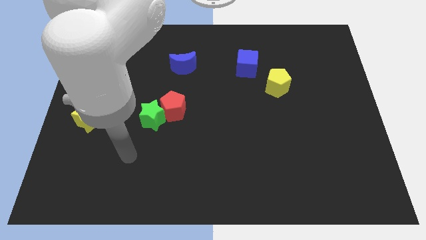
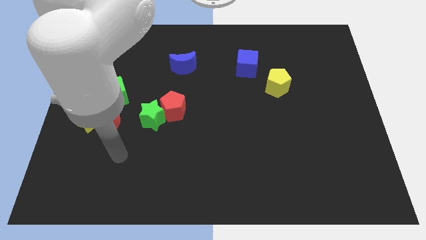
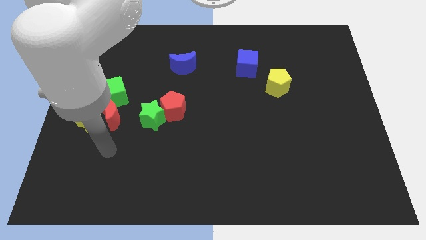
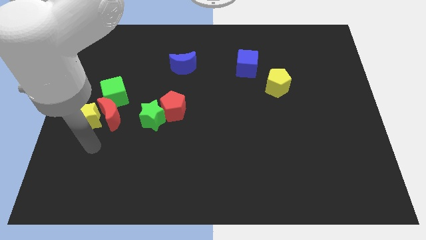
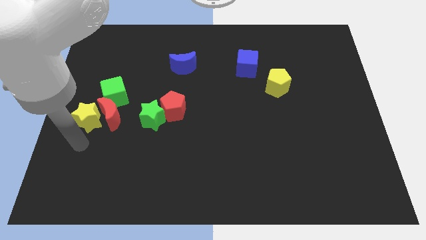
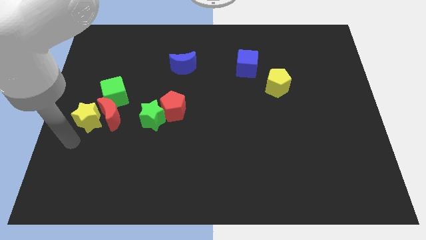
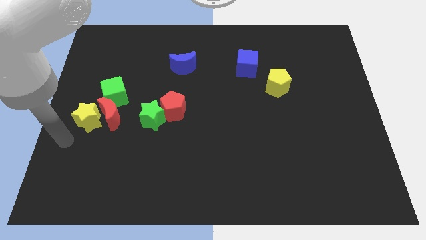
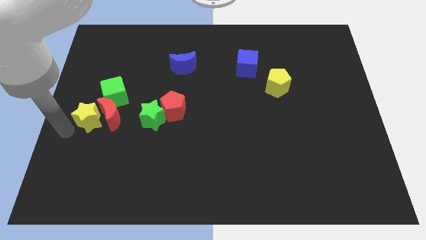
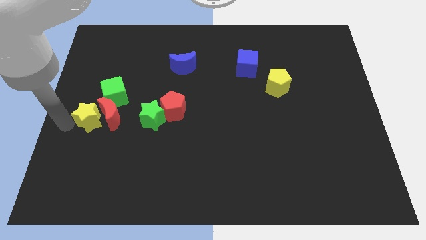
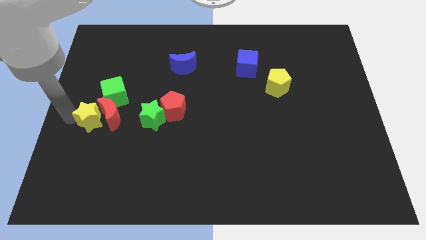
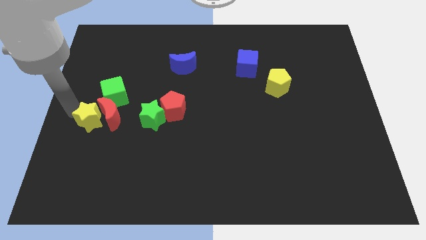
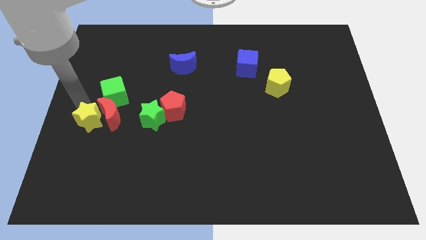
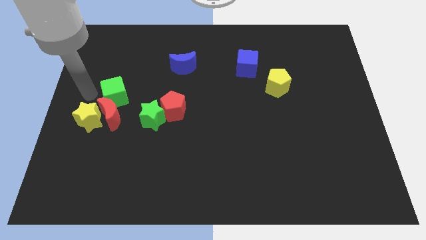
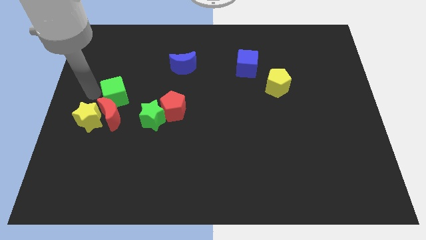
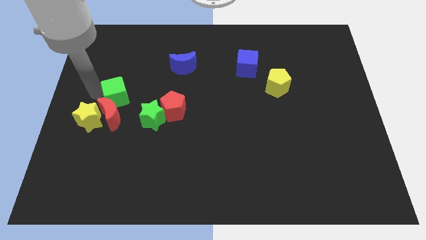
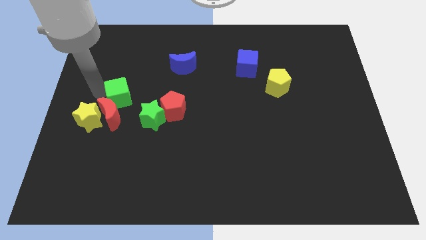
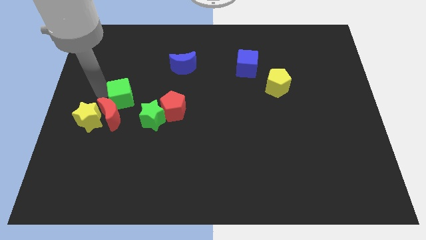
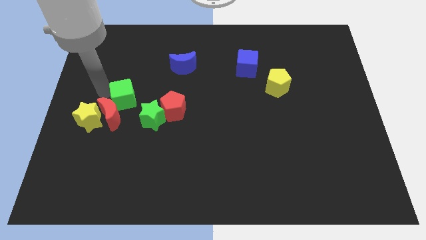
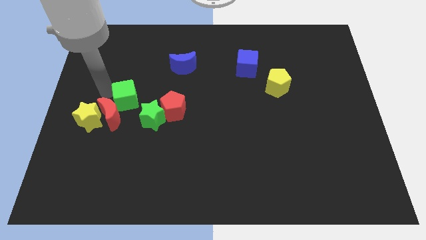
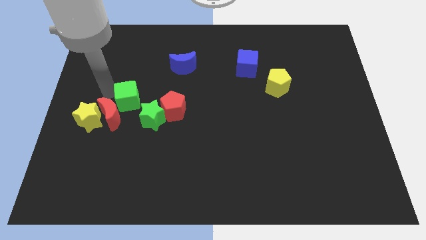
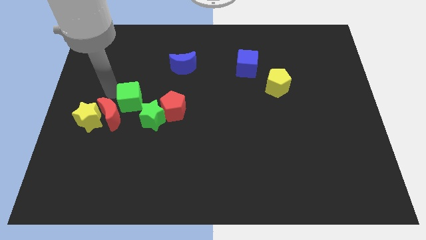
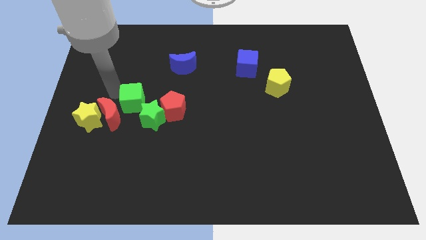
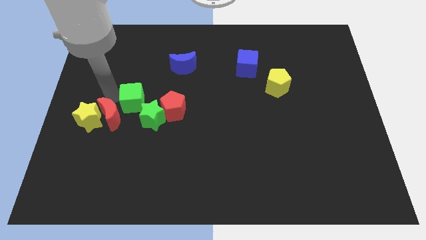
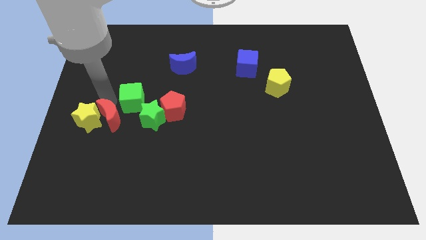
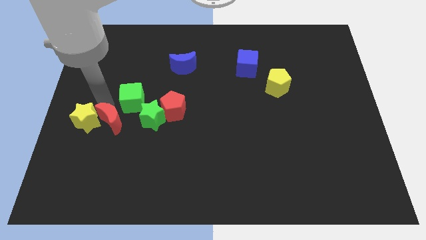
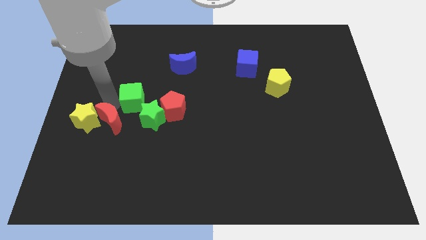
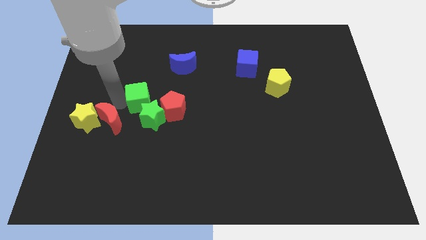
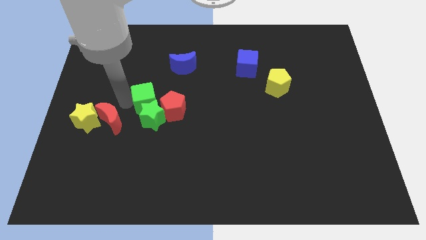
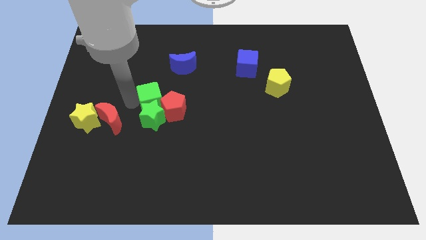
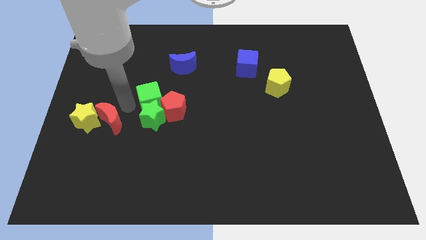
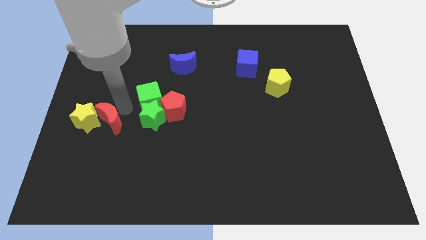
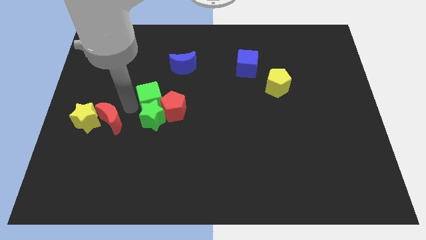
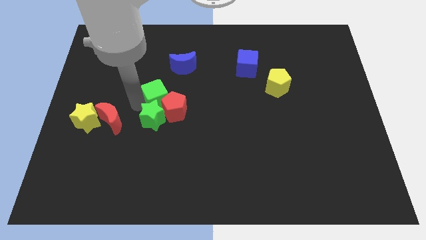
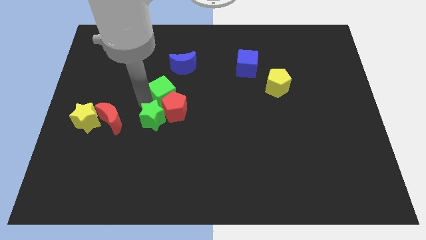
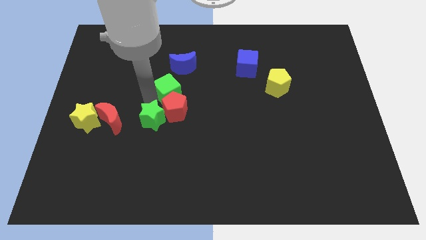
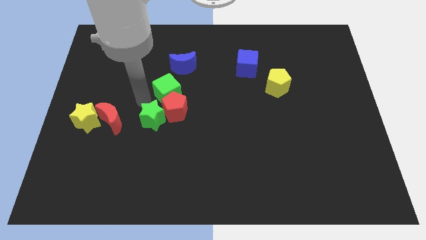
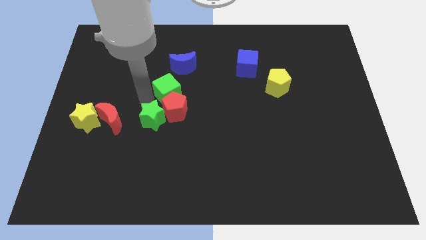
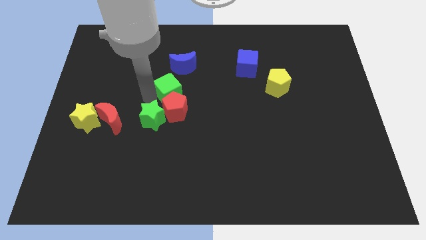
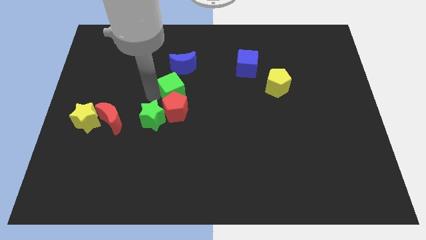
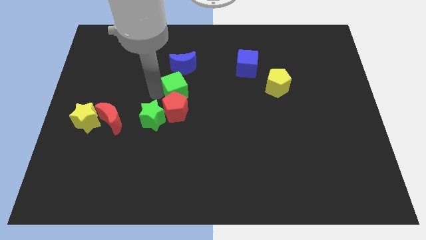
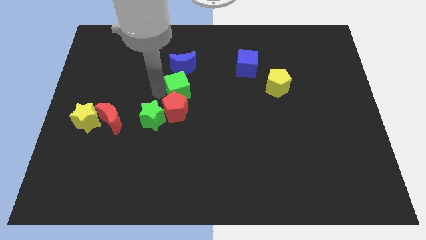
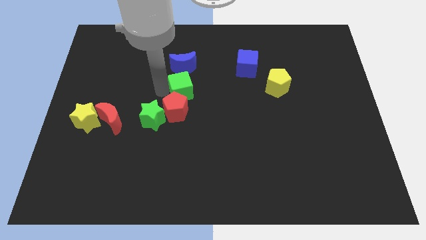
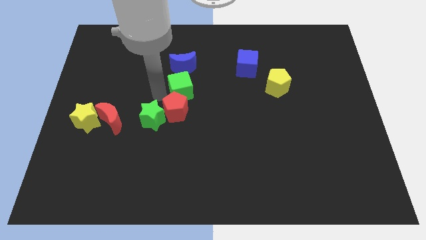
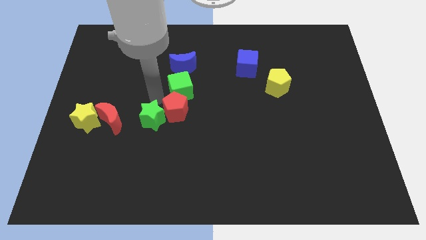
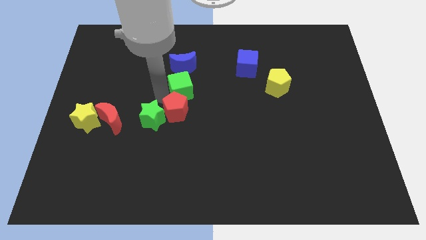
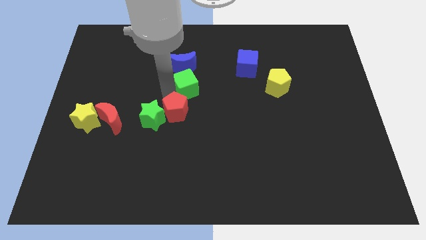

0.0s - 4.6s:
push the green cube diagonally down and to the right of the blue moon

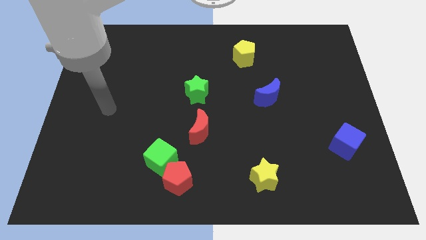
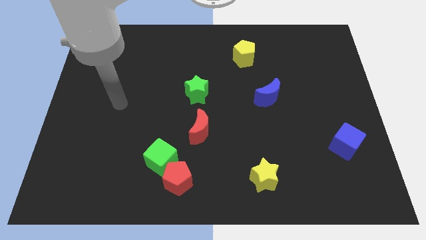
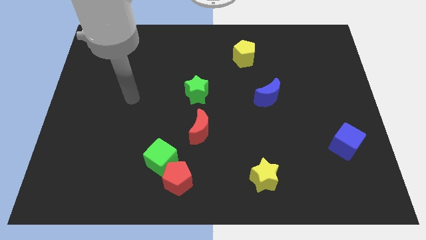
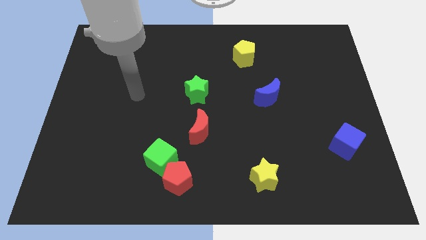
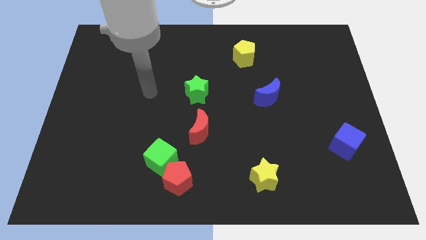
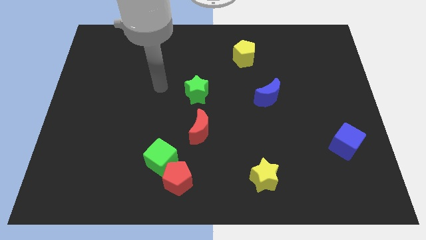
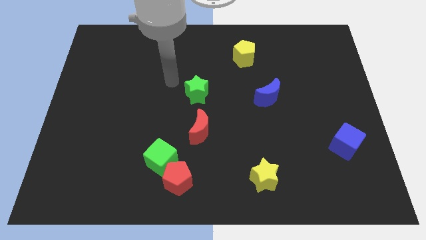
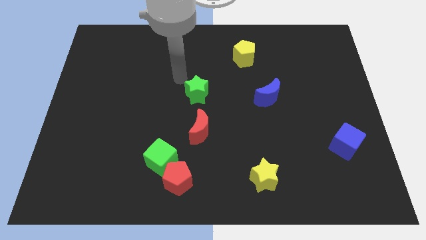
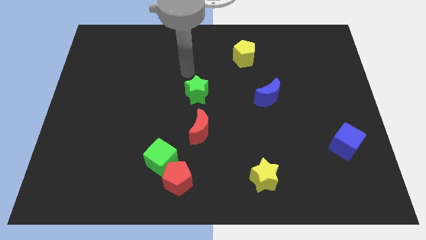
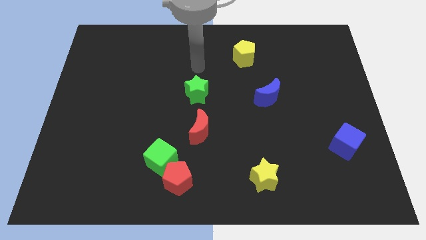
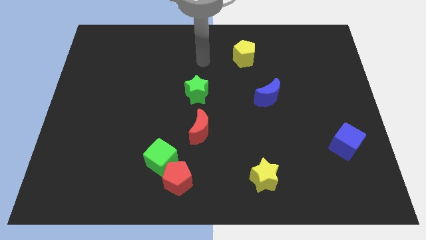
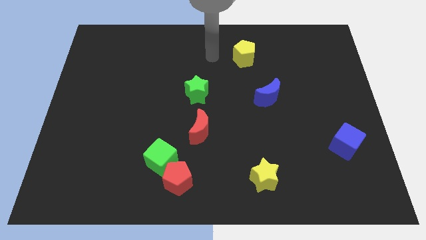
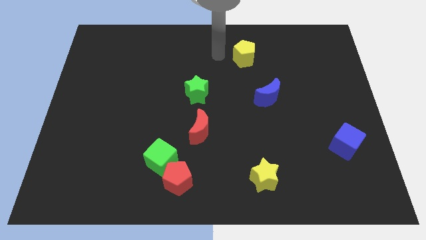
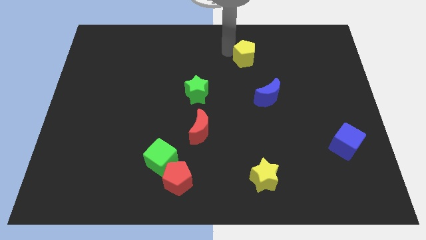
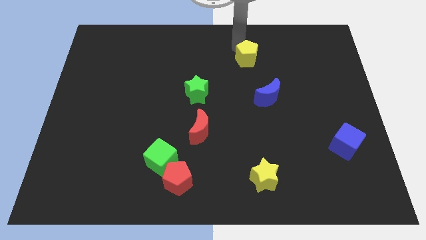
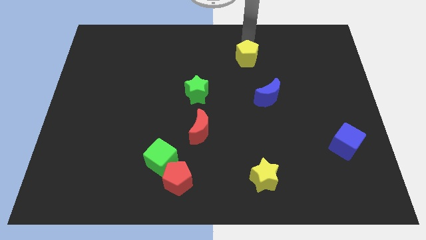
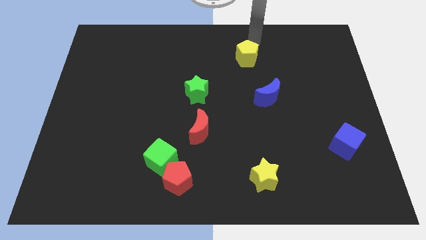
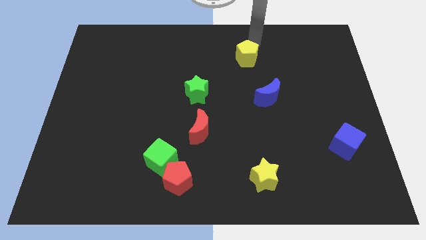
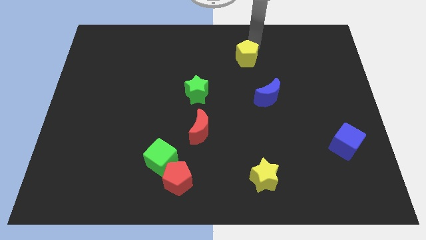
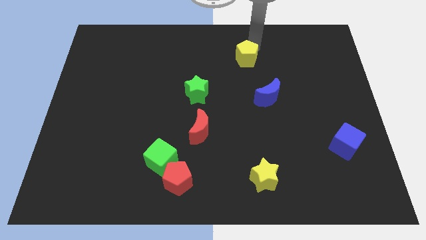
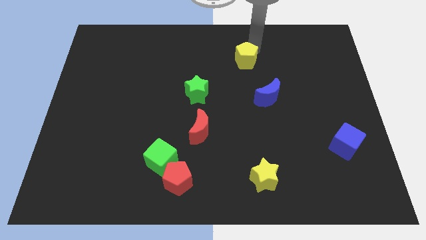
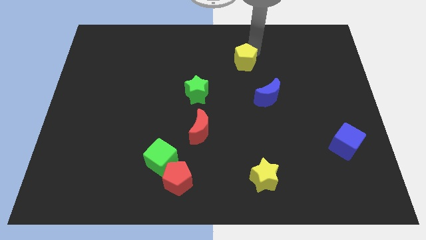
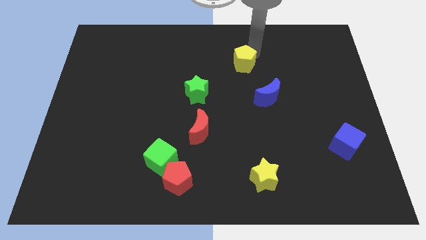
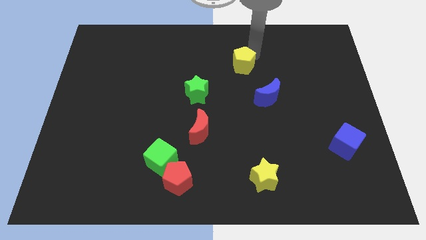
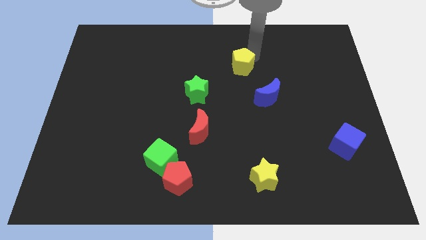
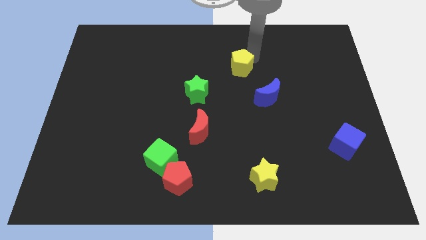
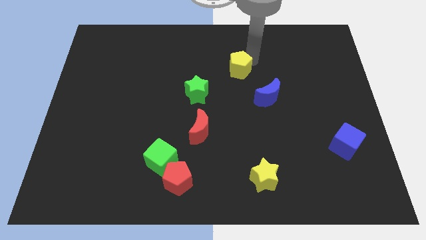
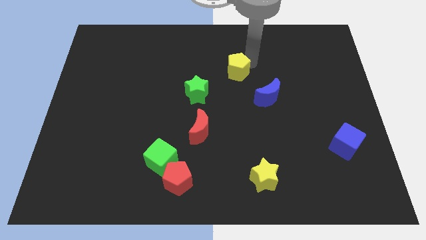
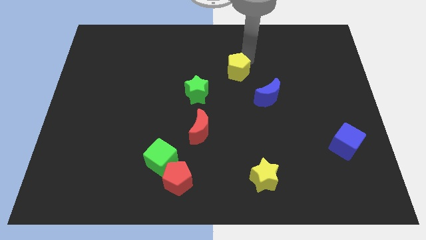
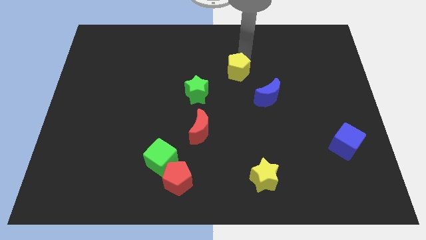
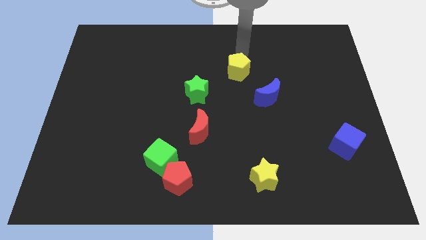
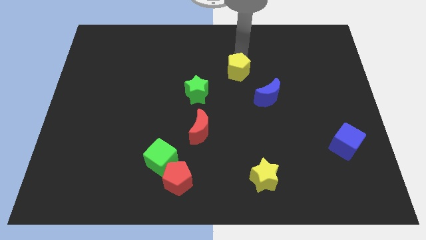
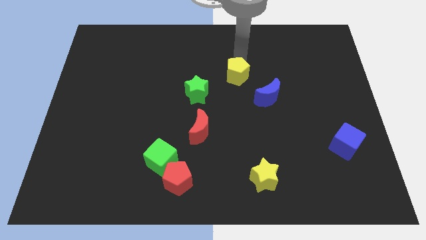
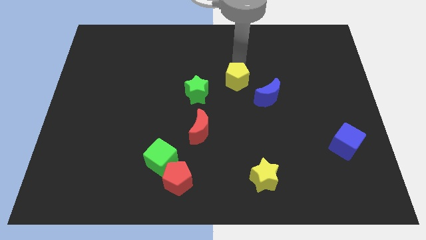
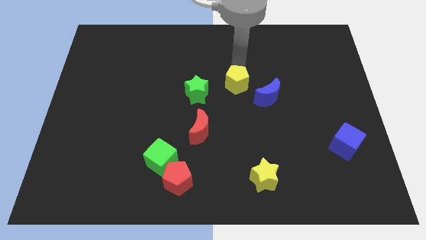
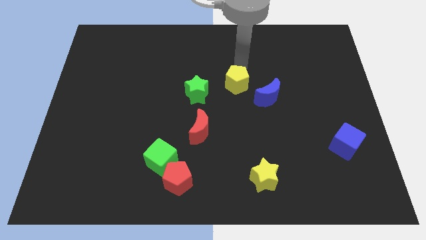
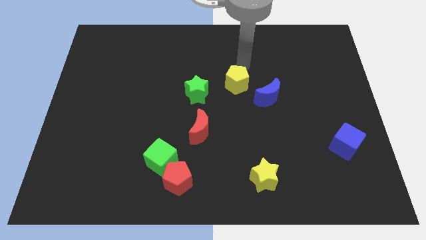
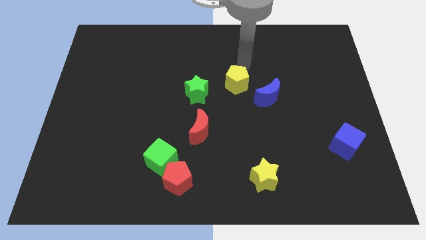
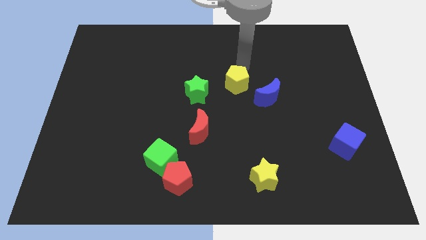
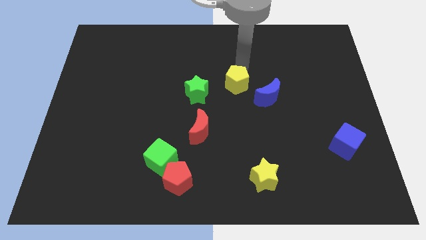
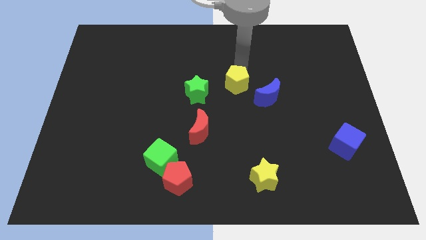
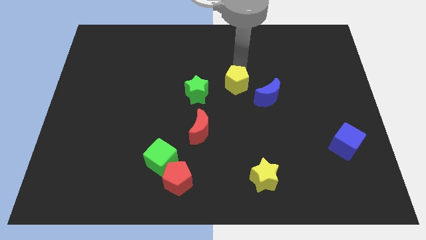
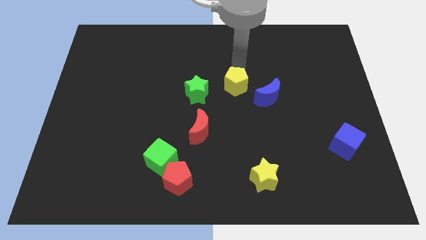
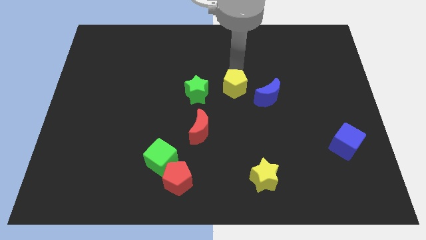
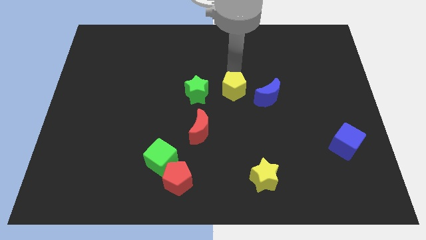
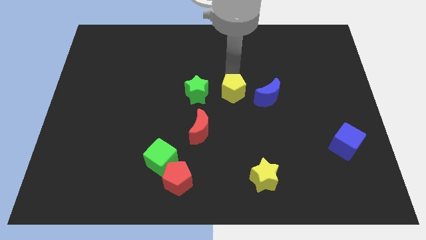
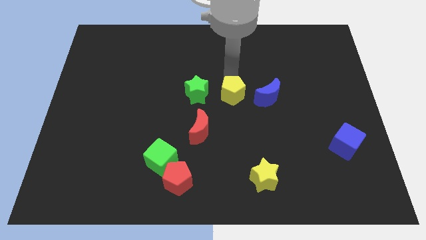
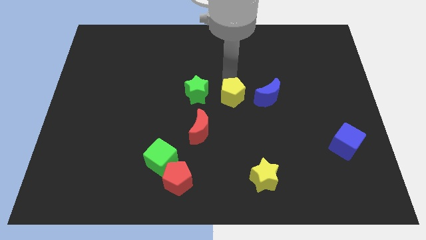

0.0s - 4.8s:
slide the yellow pentagon diagonally up and to the right of the red moon
